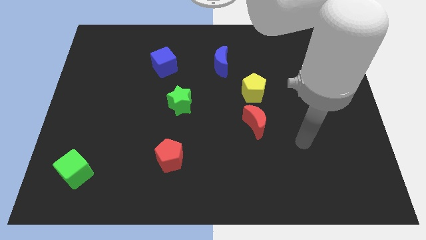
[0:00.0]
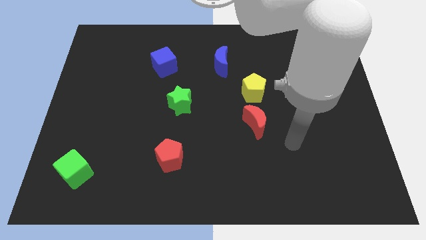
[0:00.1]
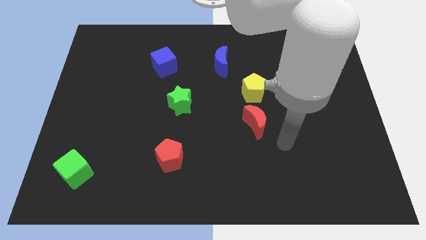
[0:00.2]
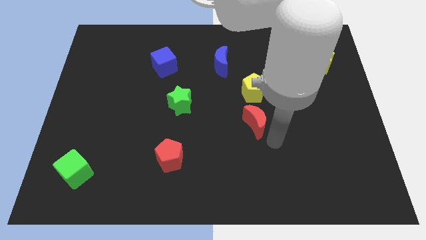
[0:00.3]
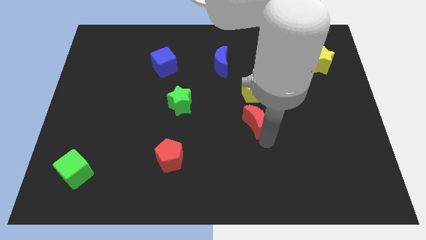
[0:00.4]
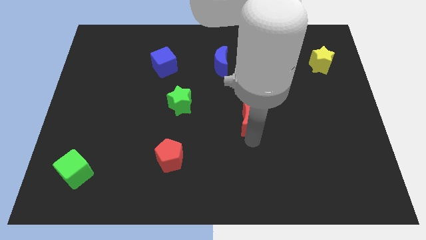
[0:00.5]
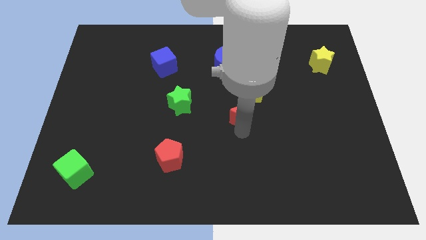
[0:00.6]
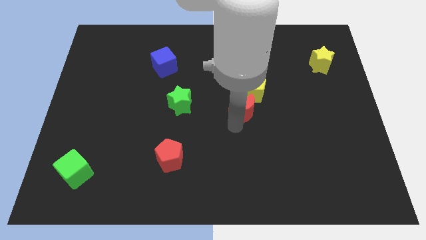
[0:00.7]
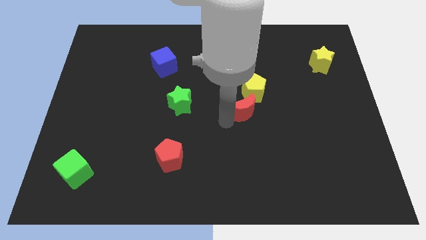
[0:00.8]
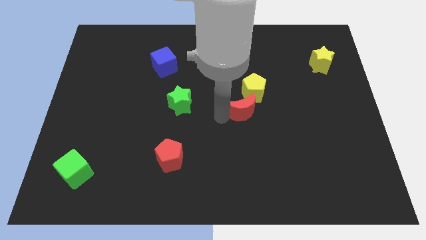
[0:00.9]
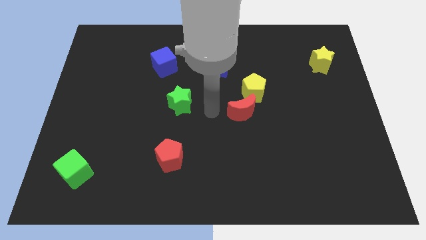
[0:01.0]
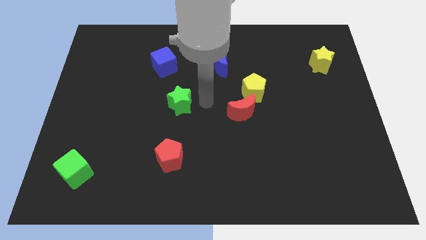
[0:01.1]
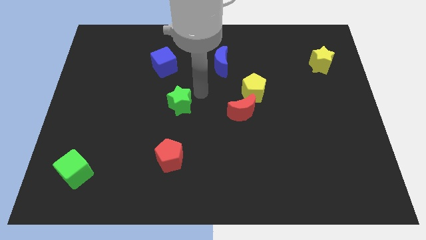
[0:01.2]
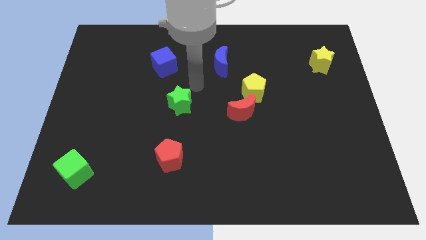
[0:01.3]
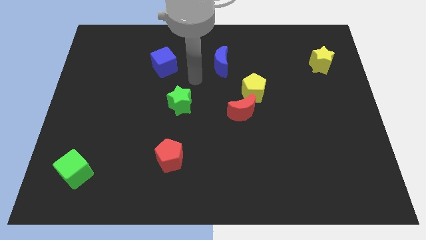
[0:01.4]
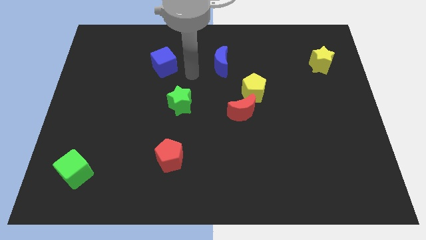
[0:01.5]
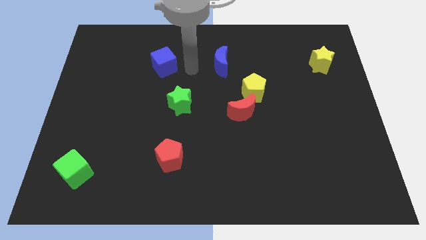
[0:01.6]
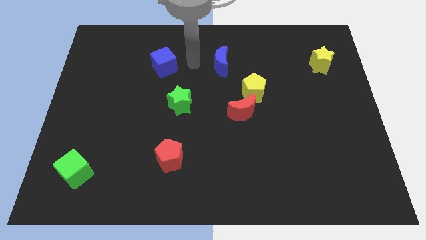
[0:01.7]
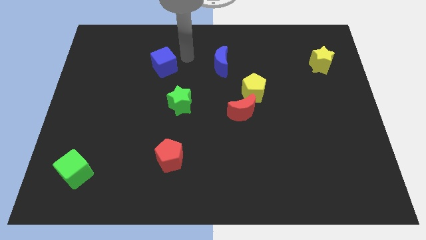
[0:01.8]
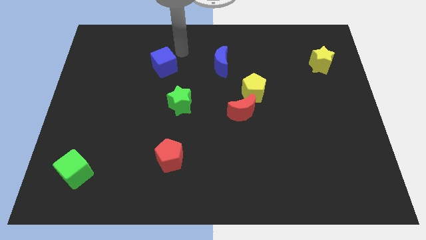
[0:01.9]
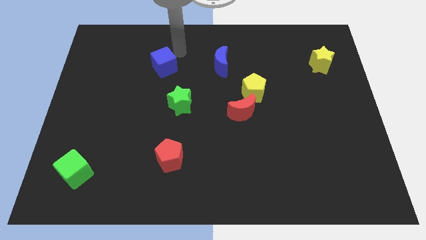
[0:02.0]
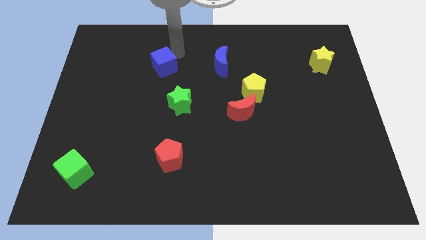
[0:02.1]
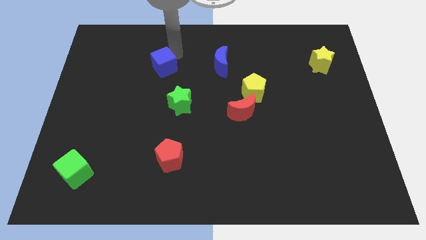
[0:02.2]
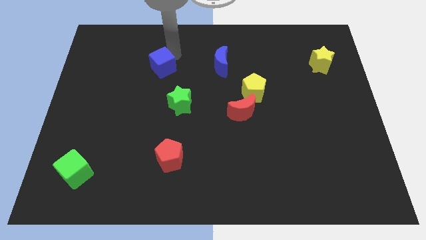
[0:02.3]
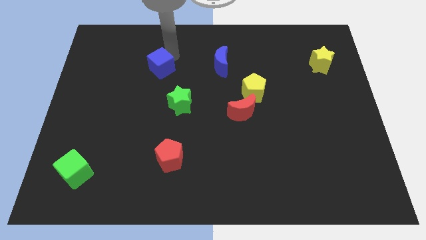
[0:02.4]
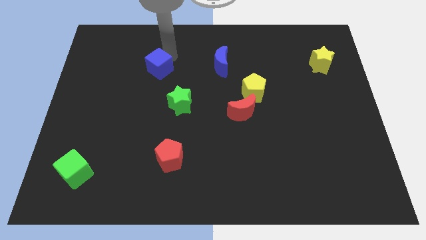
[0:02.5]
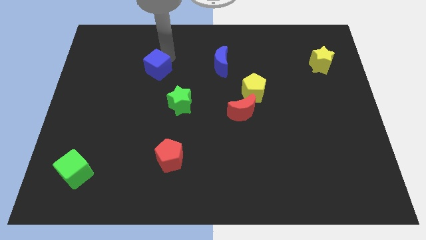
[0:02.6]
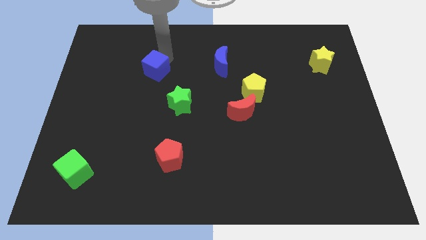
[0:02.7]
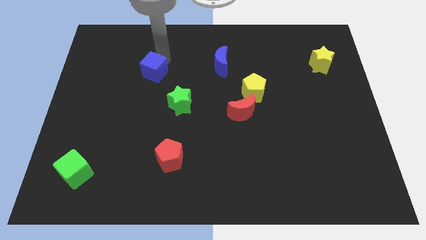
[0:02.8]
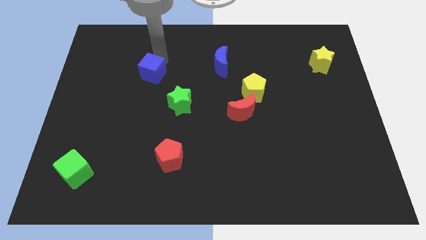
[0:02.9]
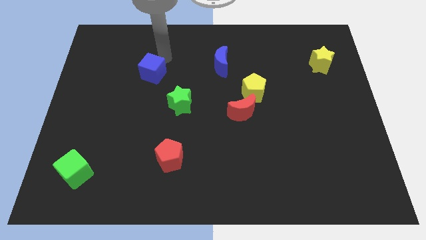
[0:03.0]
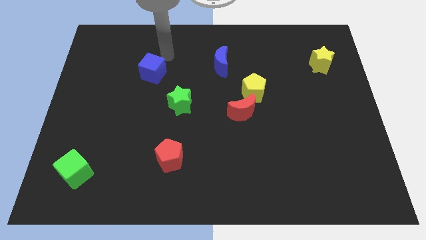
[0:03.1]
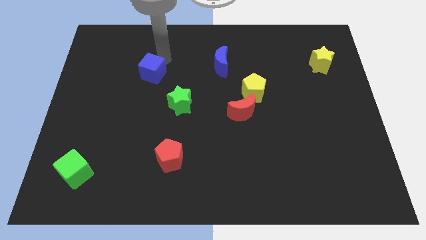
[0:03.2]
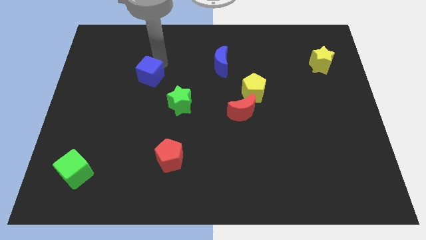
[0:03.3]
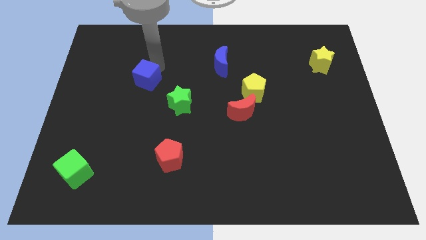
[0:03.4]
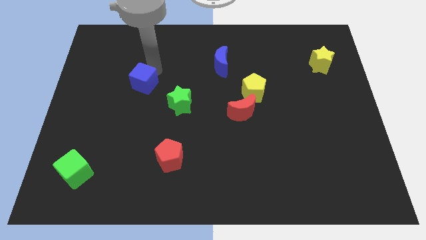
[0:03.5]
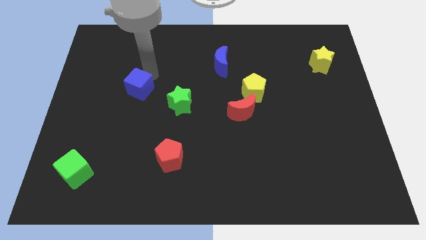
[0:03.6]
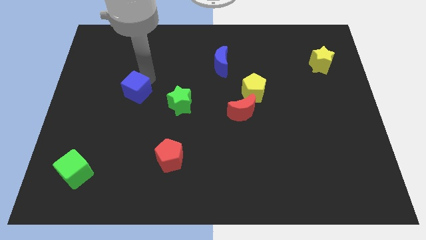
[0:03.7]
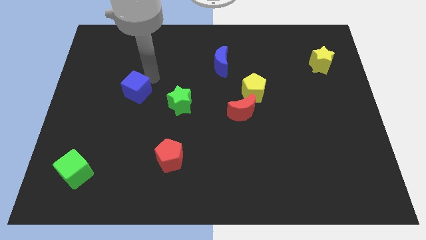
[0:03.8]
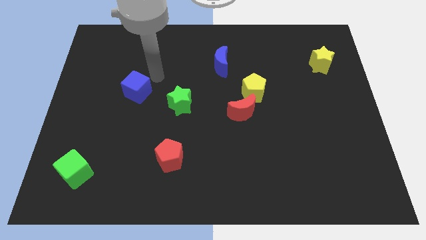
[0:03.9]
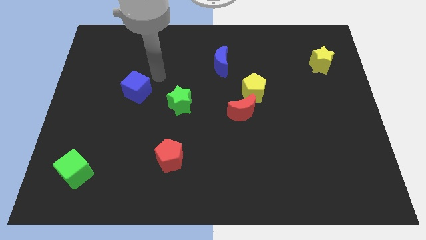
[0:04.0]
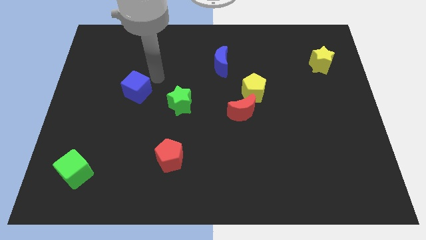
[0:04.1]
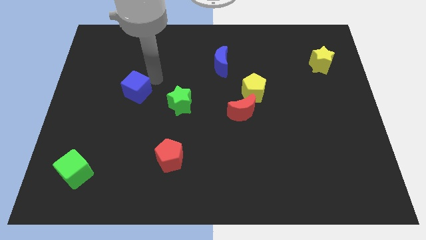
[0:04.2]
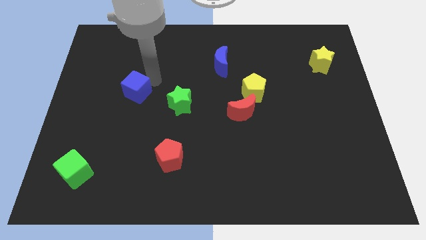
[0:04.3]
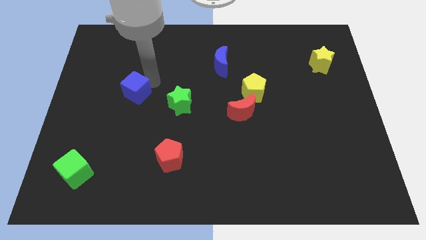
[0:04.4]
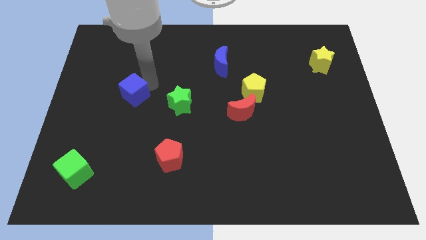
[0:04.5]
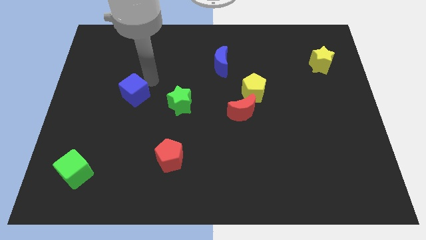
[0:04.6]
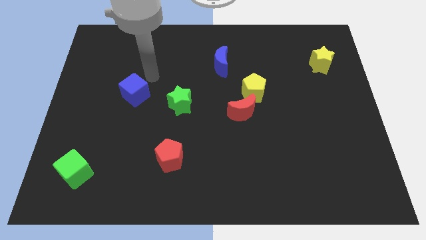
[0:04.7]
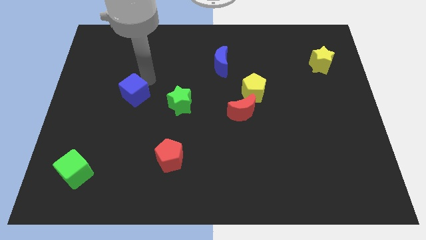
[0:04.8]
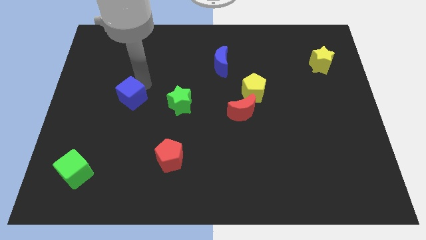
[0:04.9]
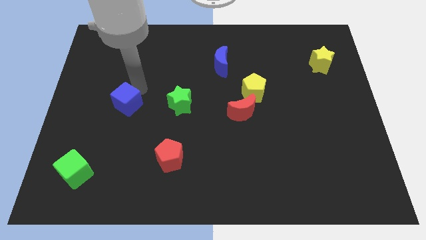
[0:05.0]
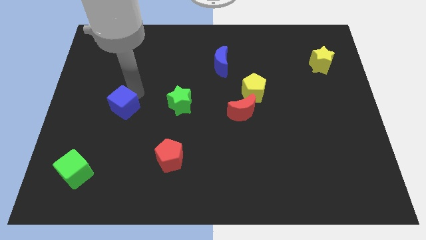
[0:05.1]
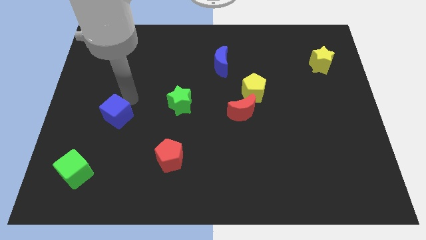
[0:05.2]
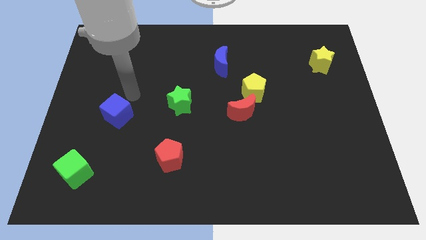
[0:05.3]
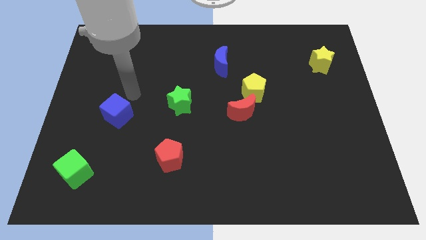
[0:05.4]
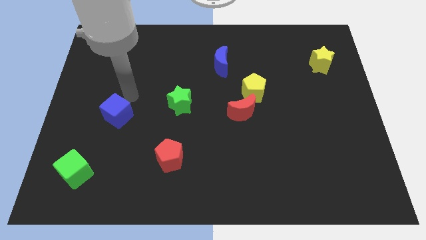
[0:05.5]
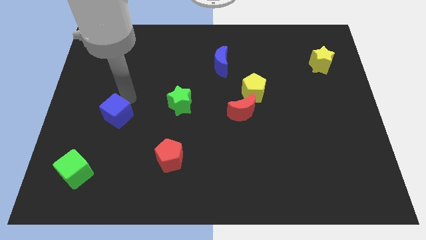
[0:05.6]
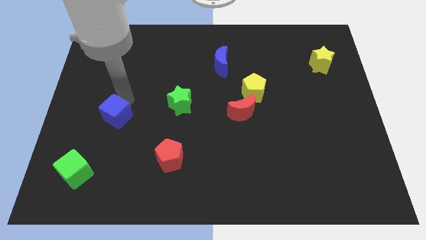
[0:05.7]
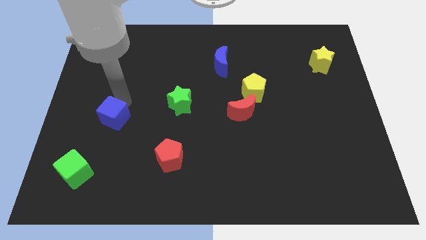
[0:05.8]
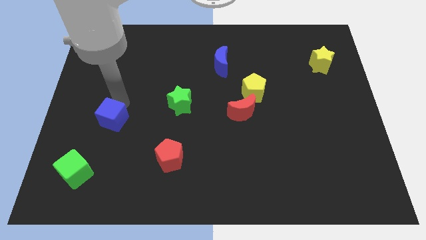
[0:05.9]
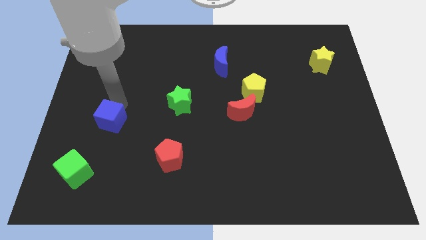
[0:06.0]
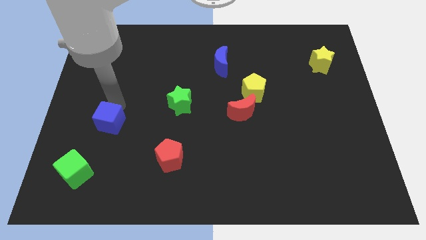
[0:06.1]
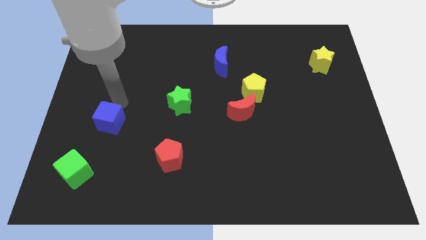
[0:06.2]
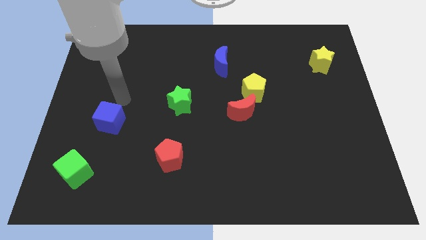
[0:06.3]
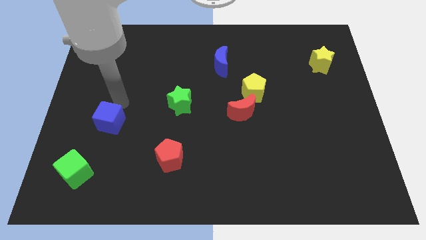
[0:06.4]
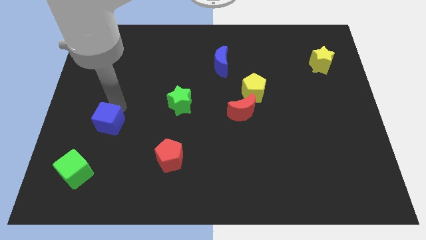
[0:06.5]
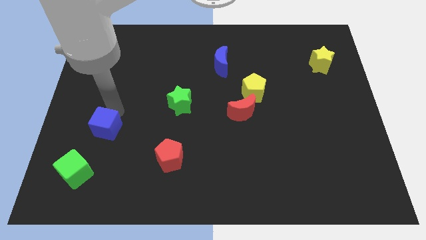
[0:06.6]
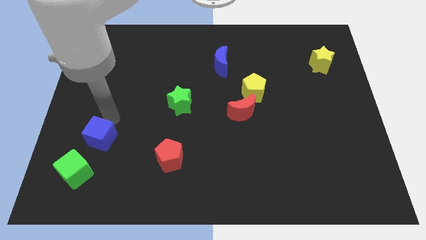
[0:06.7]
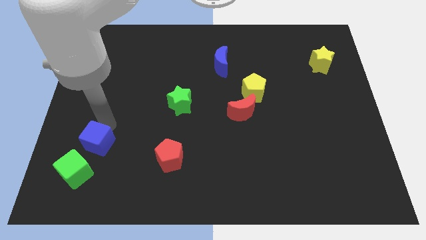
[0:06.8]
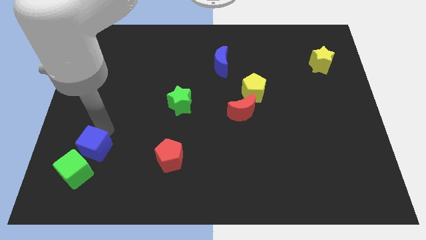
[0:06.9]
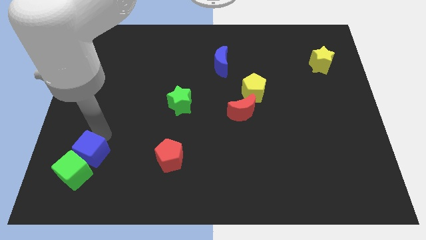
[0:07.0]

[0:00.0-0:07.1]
slide the blue cube towards the green cube

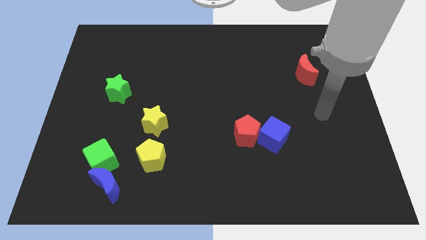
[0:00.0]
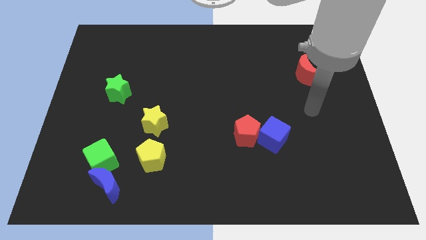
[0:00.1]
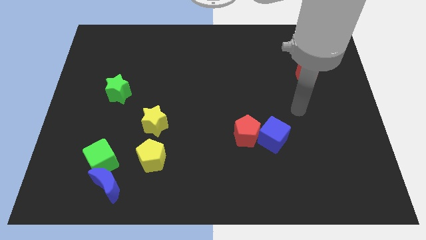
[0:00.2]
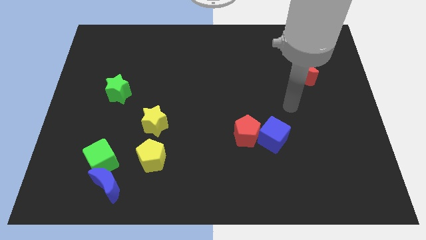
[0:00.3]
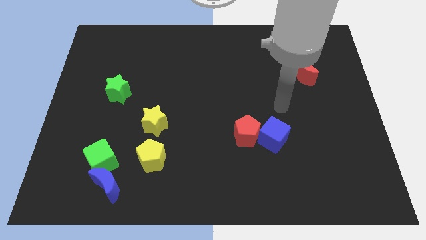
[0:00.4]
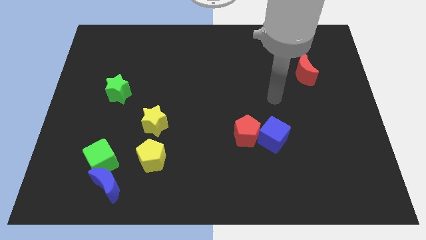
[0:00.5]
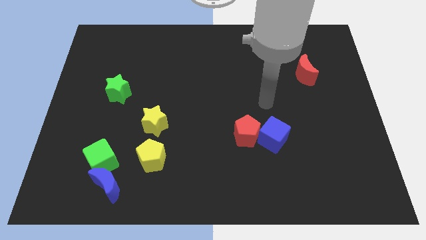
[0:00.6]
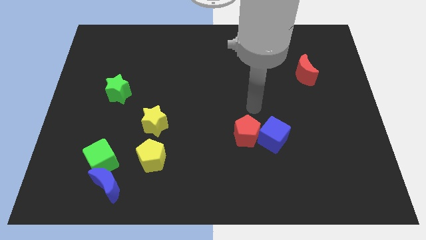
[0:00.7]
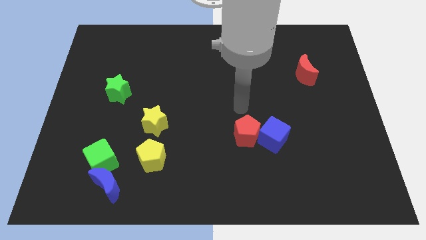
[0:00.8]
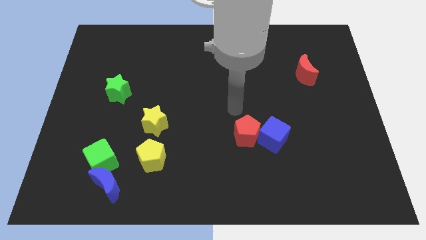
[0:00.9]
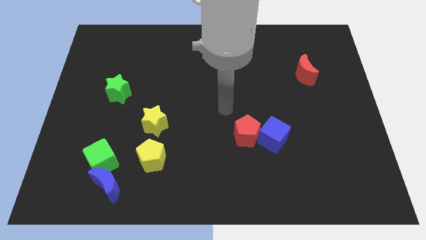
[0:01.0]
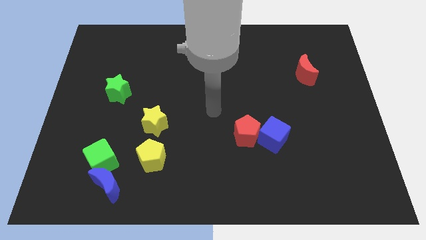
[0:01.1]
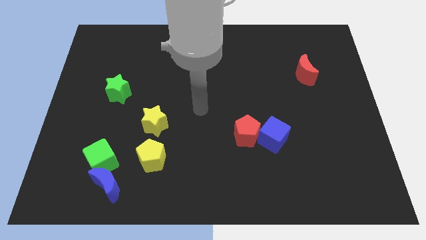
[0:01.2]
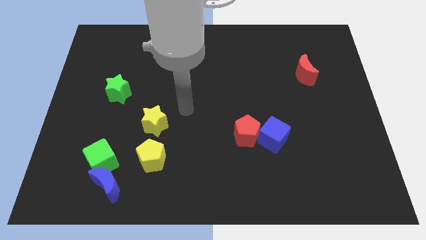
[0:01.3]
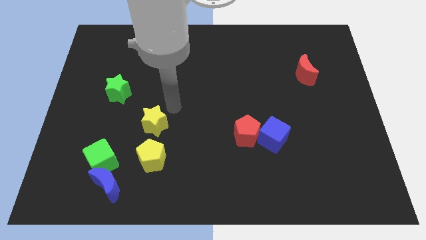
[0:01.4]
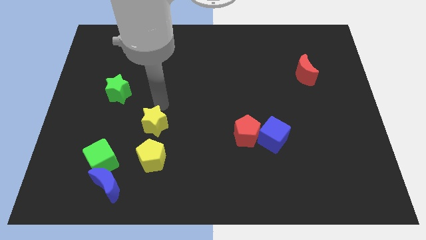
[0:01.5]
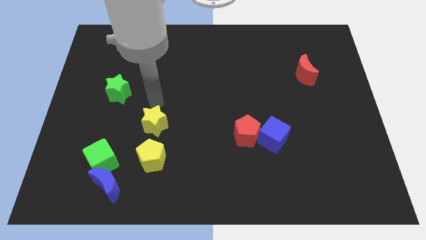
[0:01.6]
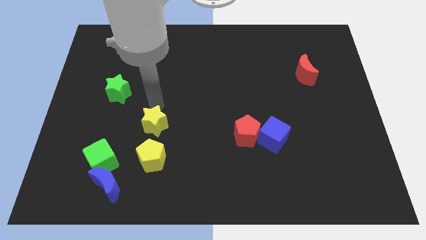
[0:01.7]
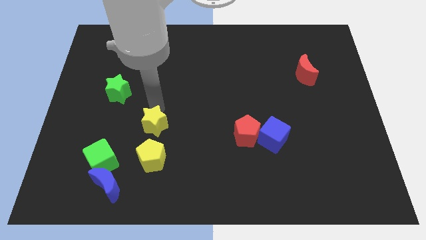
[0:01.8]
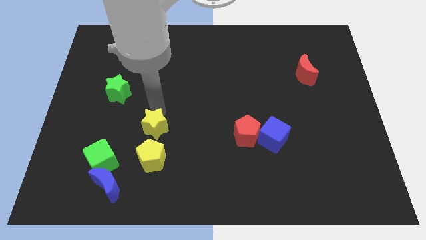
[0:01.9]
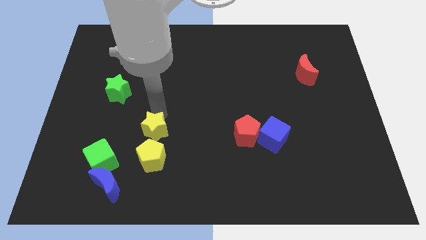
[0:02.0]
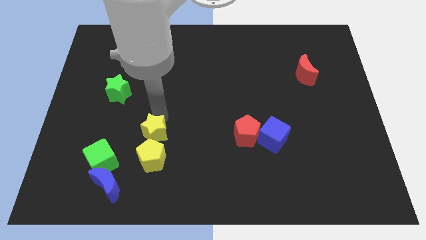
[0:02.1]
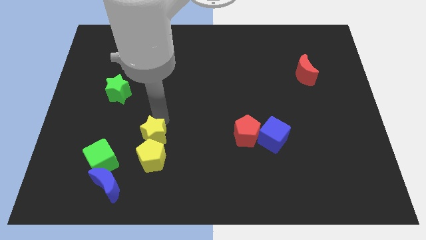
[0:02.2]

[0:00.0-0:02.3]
push the yellow star to the yellow pentagon
